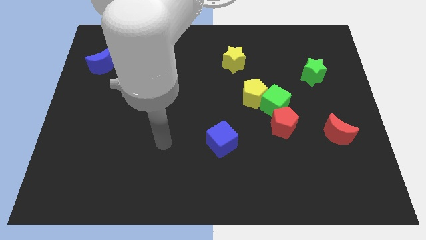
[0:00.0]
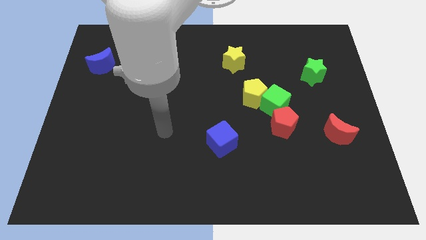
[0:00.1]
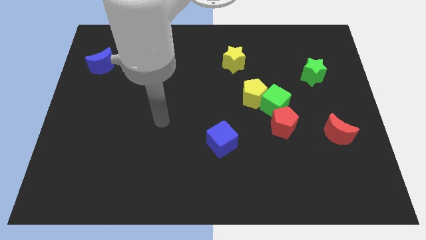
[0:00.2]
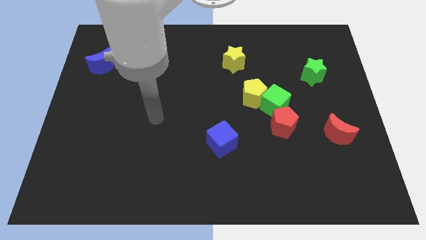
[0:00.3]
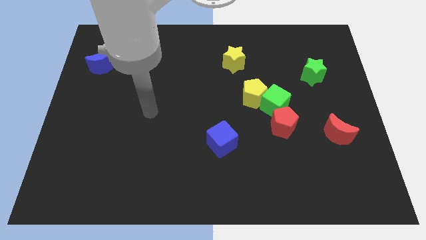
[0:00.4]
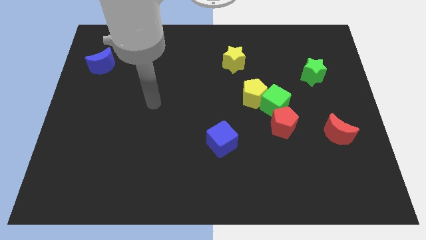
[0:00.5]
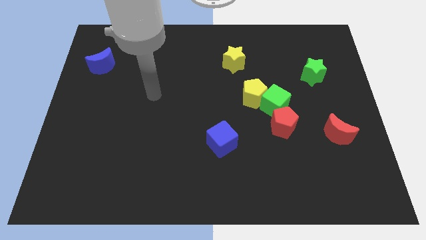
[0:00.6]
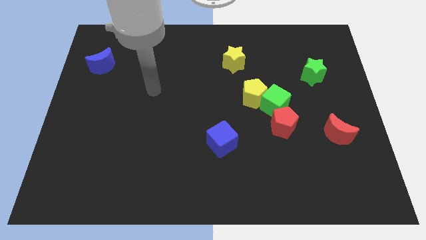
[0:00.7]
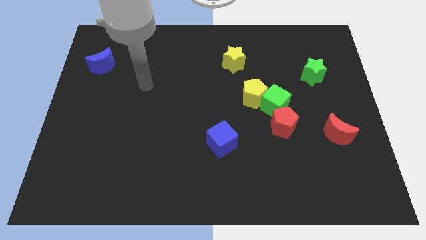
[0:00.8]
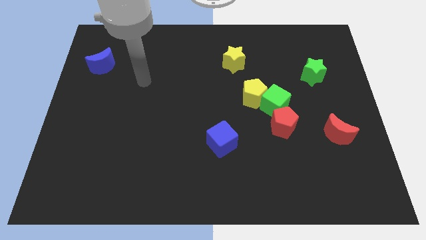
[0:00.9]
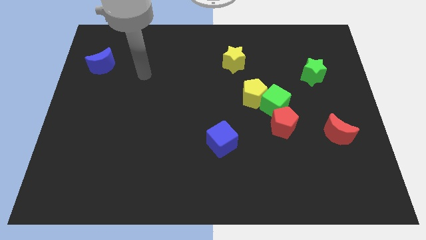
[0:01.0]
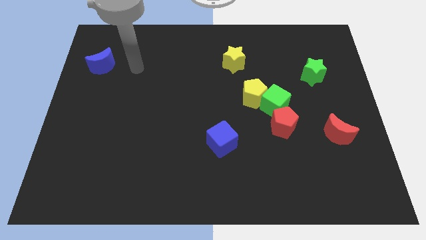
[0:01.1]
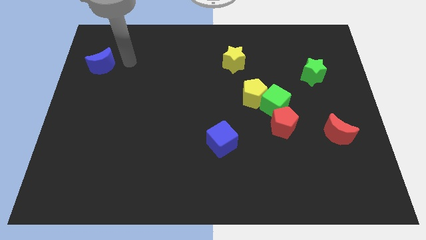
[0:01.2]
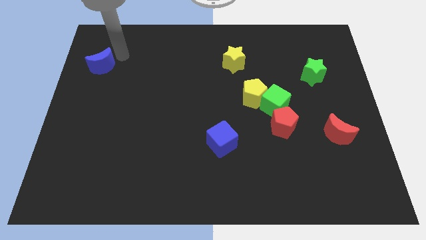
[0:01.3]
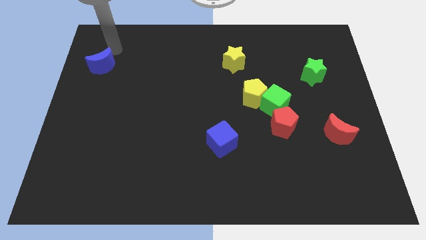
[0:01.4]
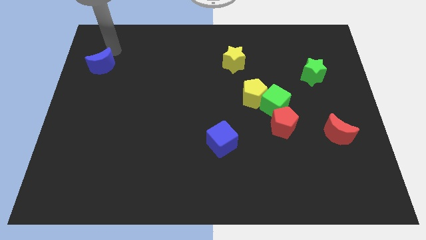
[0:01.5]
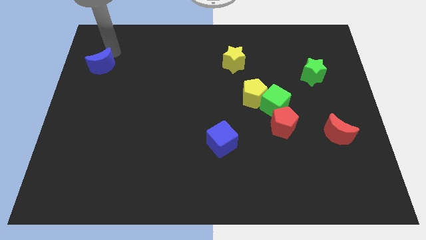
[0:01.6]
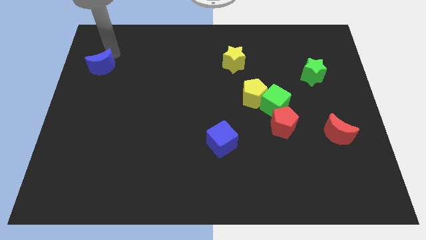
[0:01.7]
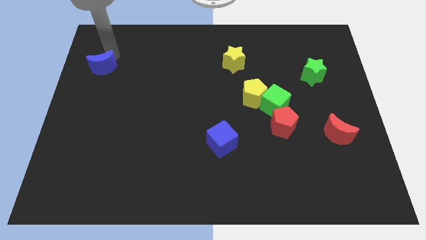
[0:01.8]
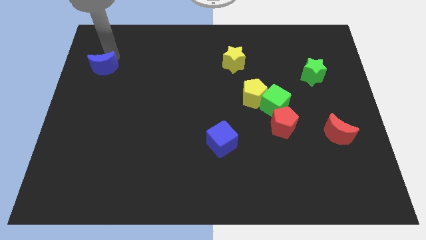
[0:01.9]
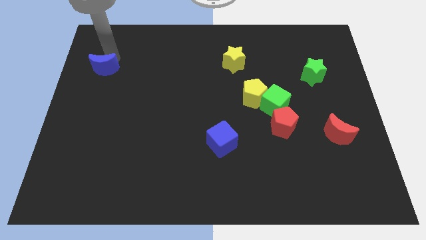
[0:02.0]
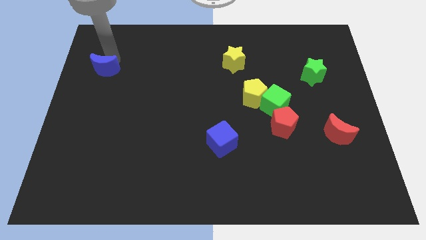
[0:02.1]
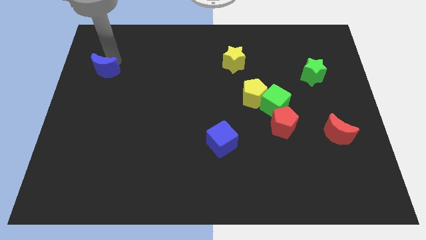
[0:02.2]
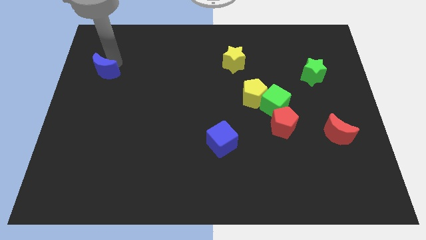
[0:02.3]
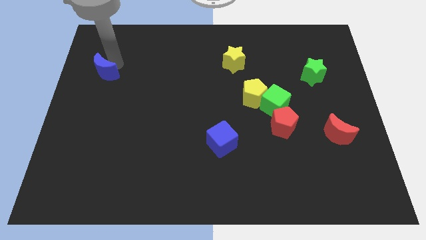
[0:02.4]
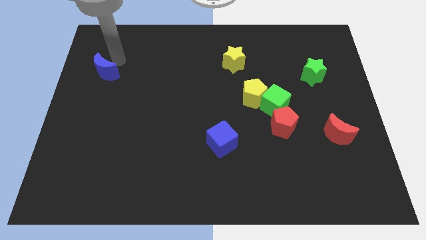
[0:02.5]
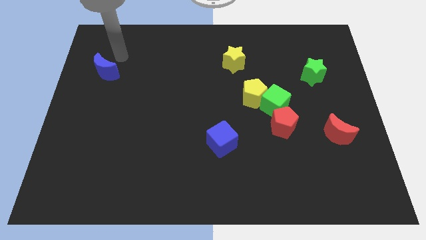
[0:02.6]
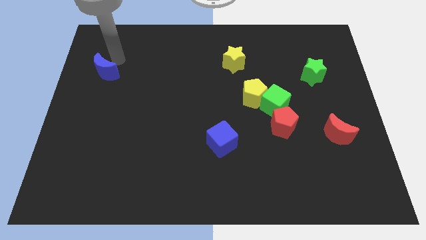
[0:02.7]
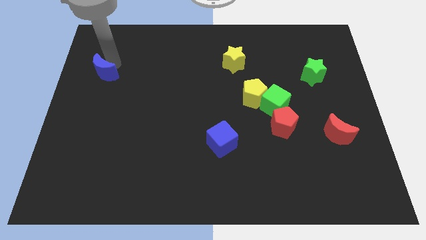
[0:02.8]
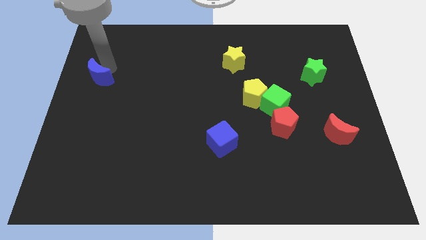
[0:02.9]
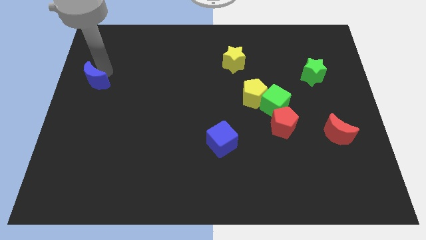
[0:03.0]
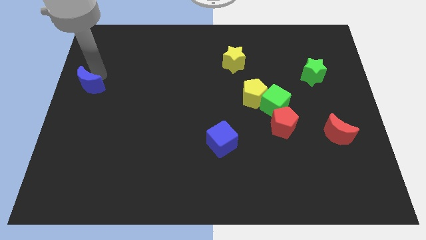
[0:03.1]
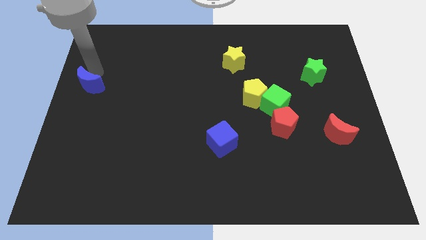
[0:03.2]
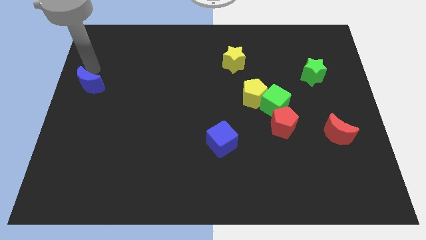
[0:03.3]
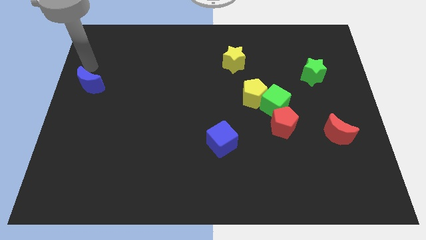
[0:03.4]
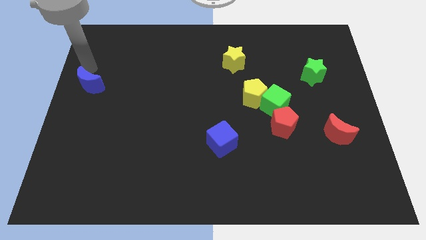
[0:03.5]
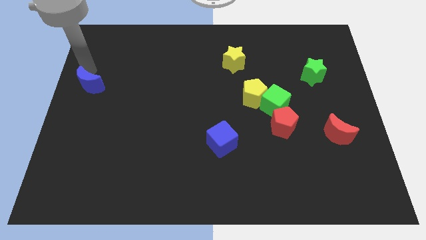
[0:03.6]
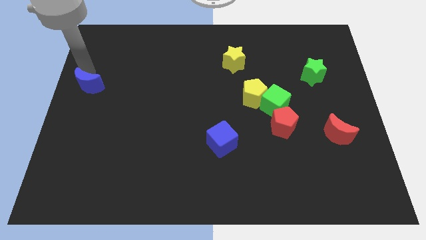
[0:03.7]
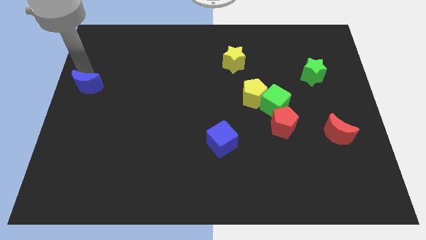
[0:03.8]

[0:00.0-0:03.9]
push the blue moon downwards a little bit

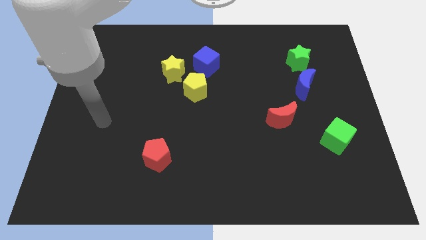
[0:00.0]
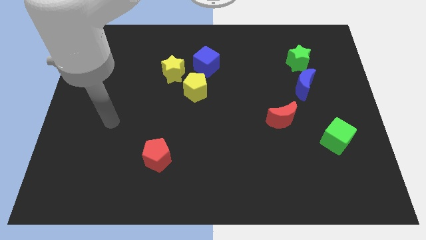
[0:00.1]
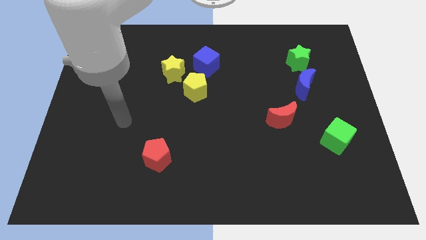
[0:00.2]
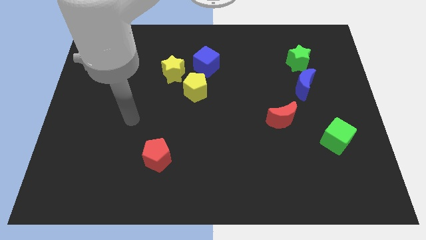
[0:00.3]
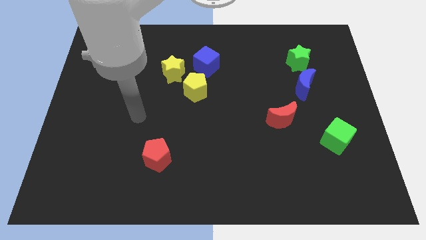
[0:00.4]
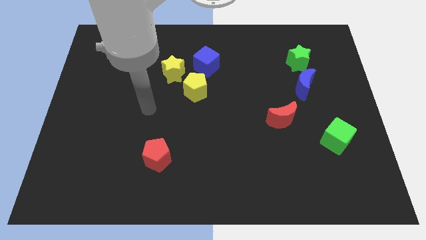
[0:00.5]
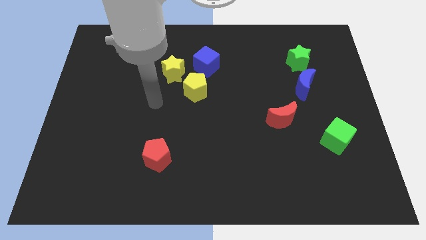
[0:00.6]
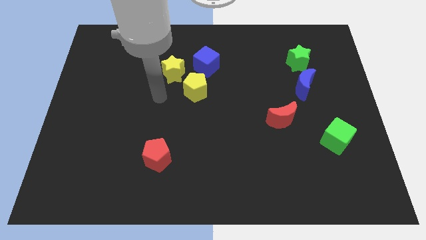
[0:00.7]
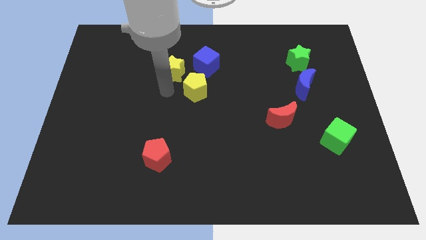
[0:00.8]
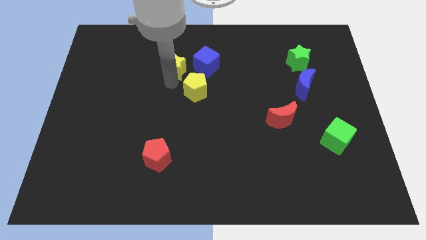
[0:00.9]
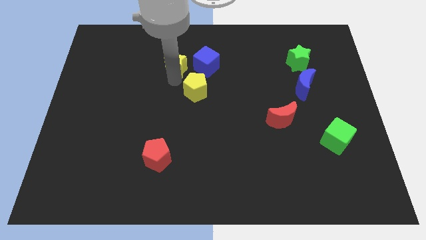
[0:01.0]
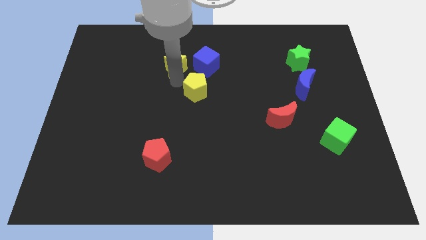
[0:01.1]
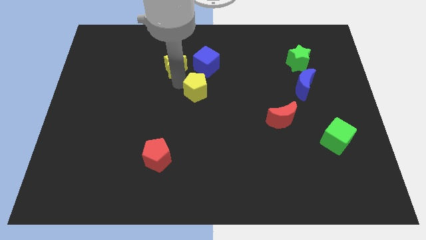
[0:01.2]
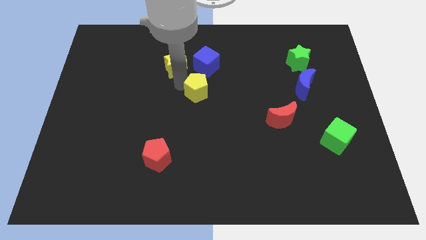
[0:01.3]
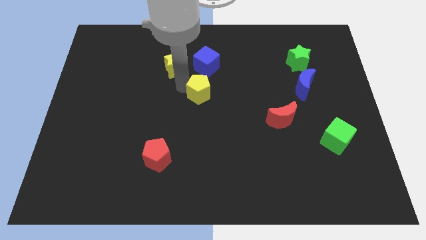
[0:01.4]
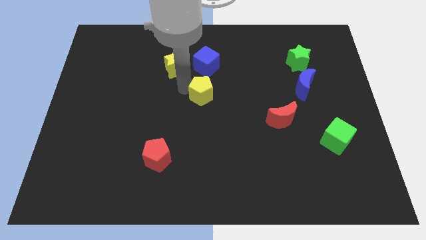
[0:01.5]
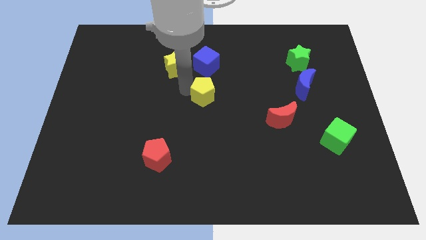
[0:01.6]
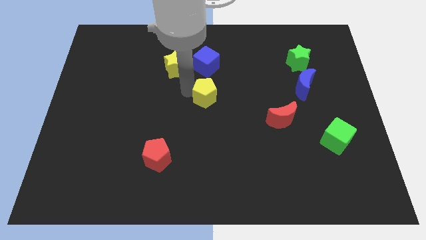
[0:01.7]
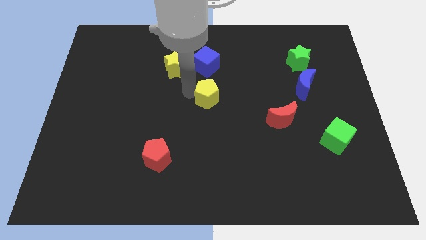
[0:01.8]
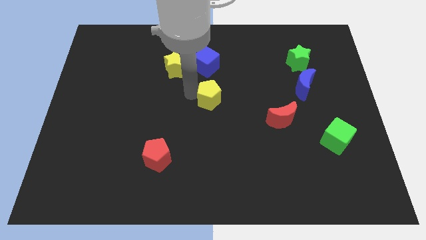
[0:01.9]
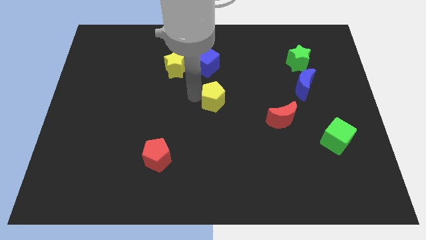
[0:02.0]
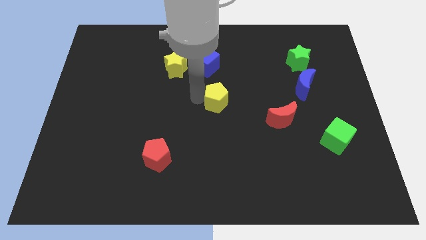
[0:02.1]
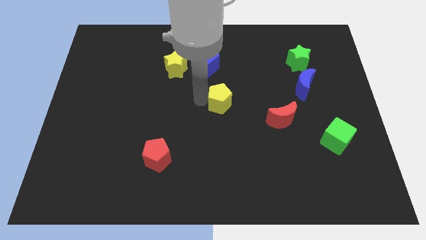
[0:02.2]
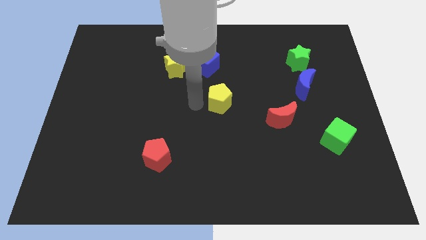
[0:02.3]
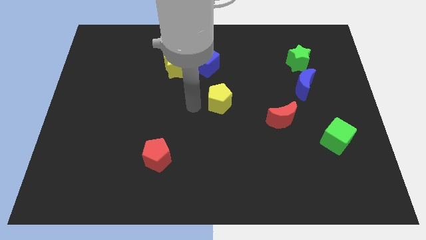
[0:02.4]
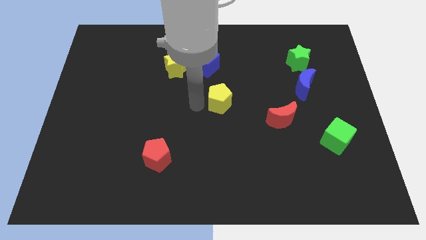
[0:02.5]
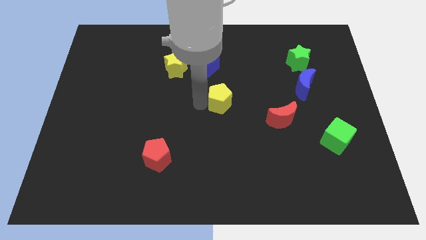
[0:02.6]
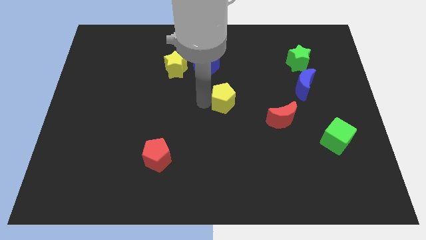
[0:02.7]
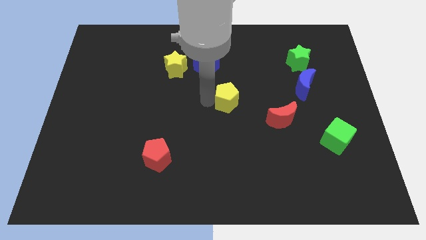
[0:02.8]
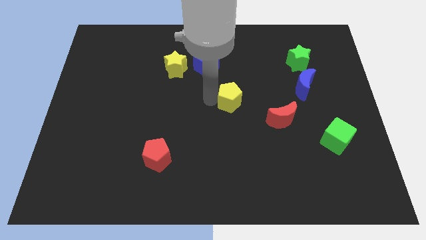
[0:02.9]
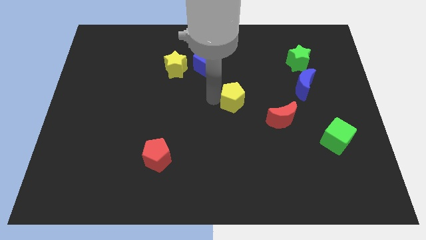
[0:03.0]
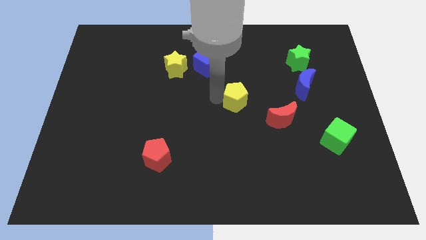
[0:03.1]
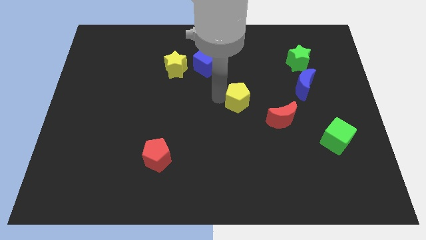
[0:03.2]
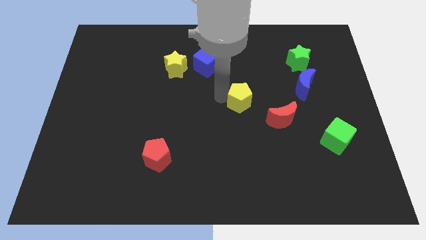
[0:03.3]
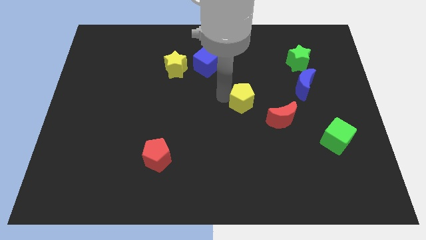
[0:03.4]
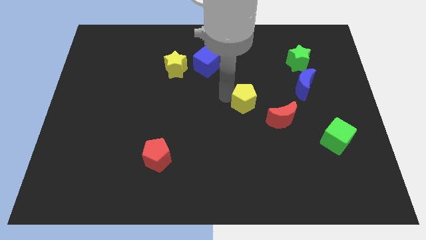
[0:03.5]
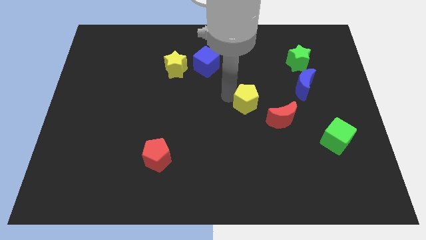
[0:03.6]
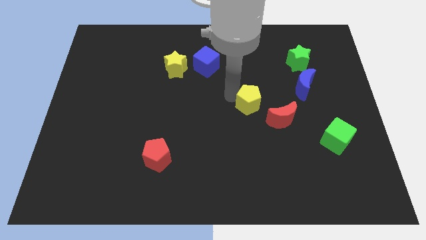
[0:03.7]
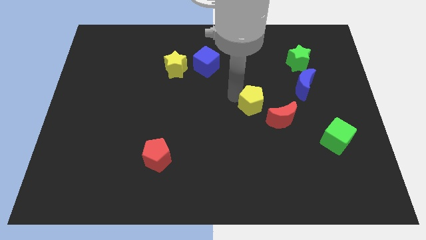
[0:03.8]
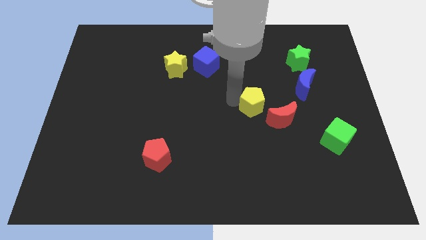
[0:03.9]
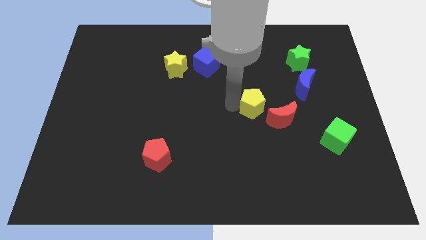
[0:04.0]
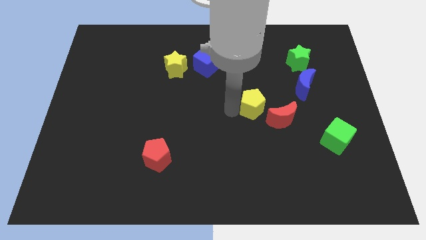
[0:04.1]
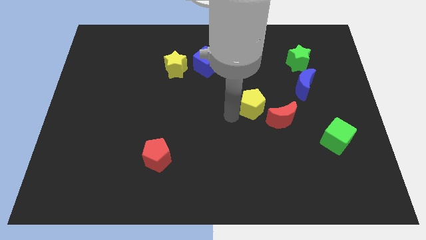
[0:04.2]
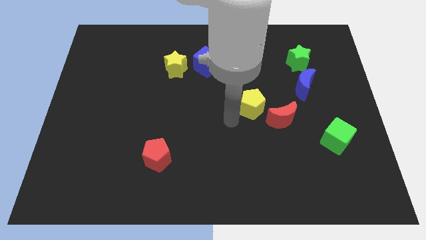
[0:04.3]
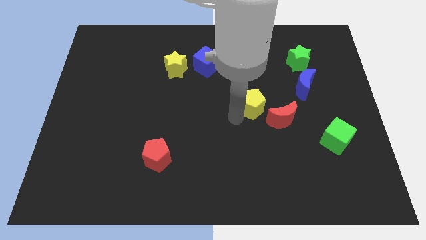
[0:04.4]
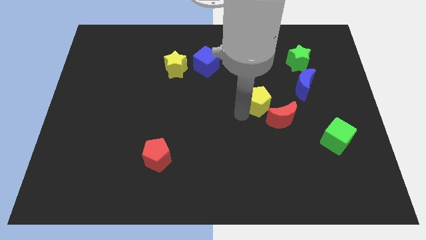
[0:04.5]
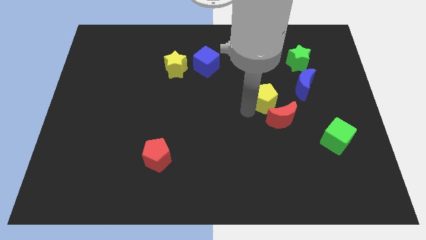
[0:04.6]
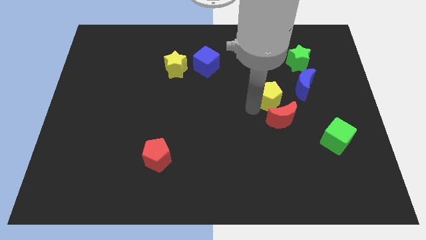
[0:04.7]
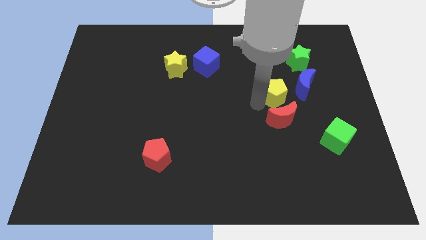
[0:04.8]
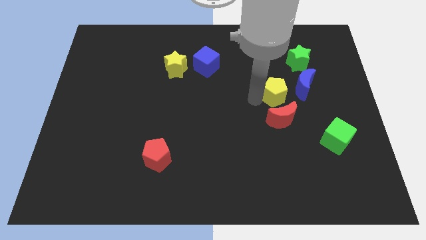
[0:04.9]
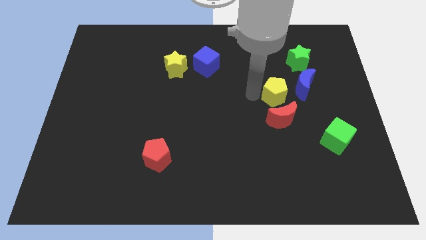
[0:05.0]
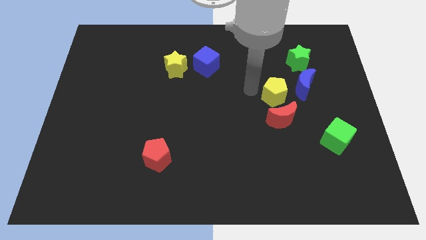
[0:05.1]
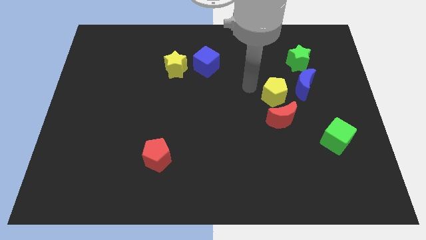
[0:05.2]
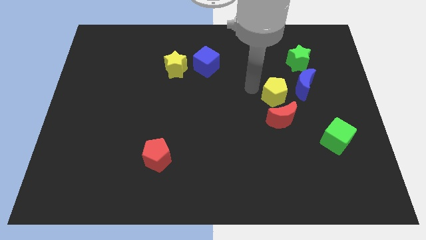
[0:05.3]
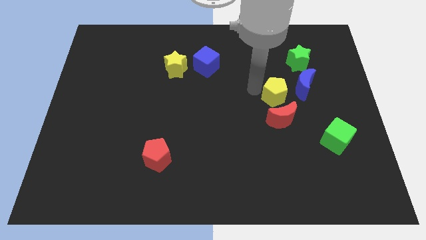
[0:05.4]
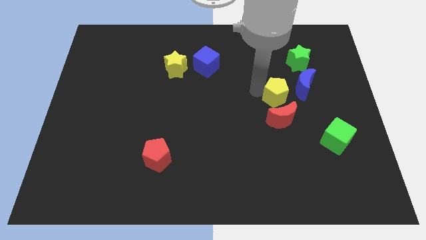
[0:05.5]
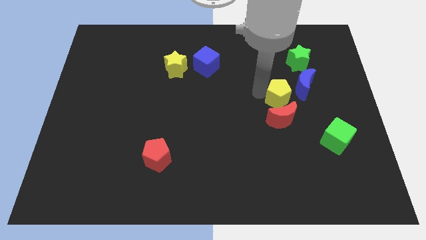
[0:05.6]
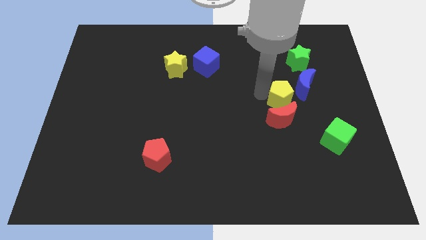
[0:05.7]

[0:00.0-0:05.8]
slide the yellow pentagon to the right
